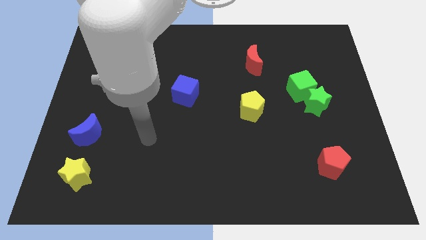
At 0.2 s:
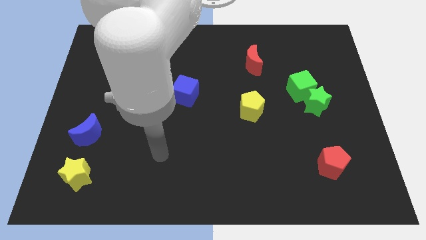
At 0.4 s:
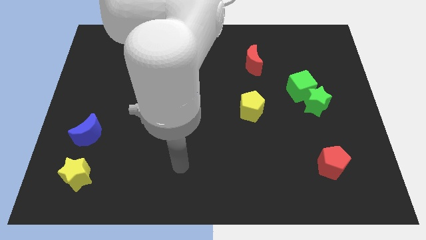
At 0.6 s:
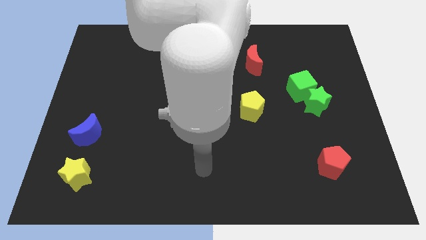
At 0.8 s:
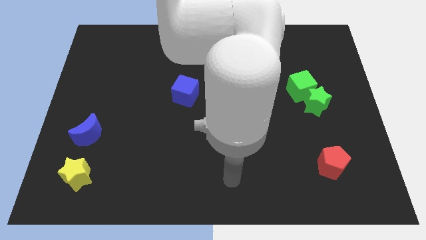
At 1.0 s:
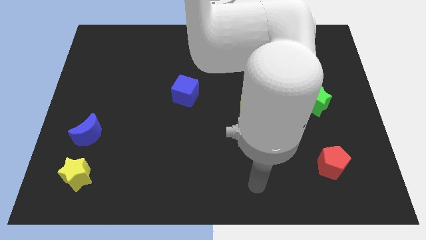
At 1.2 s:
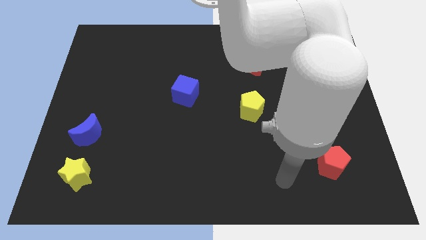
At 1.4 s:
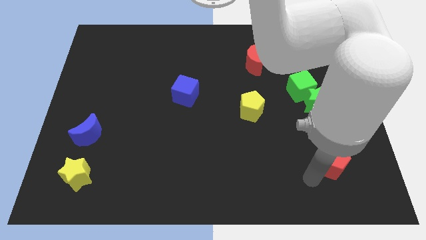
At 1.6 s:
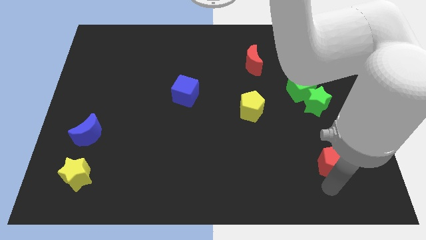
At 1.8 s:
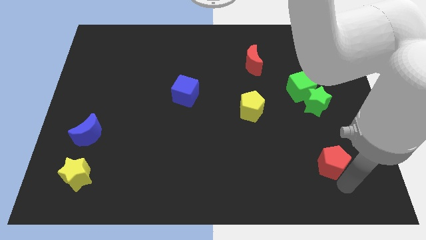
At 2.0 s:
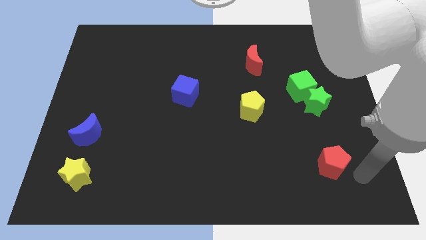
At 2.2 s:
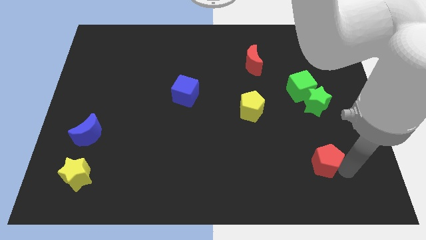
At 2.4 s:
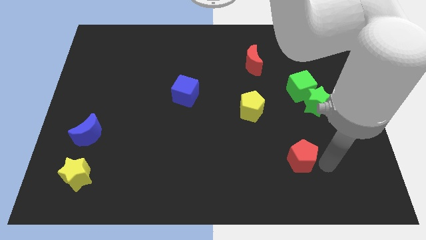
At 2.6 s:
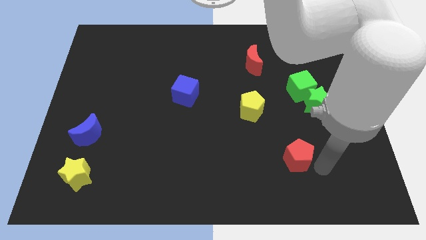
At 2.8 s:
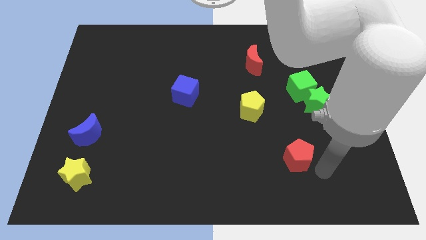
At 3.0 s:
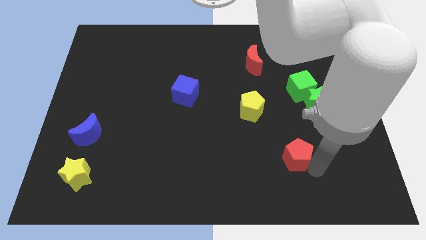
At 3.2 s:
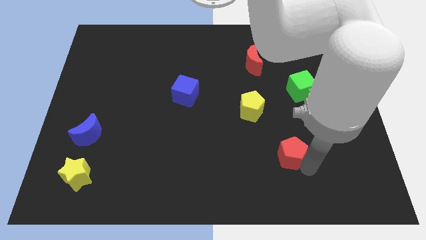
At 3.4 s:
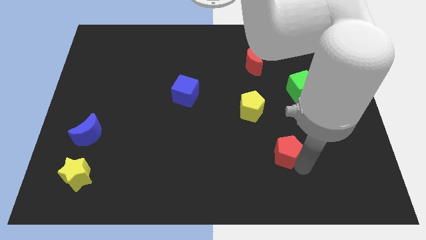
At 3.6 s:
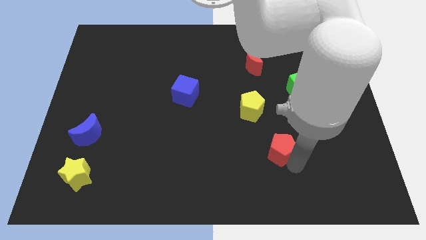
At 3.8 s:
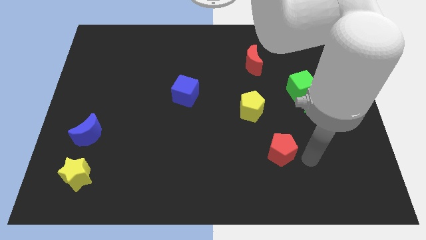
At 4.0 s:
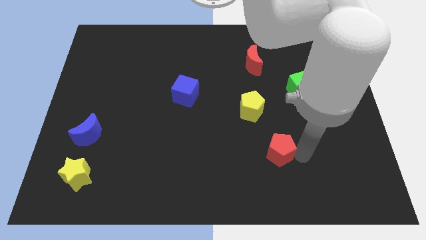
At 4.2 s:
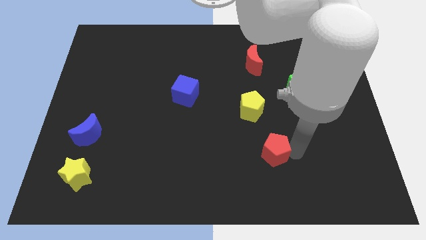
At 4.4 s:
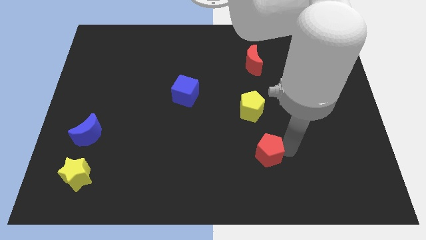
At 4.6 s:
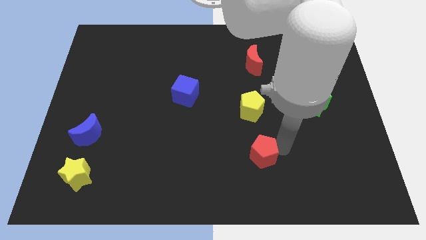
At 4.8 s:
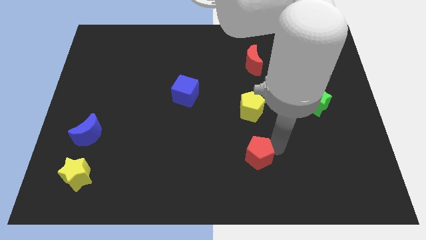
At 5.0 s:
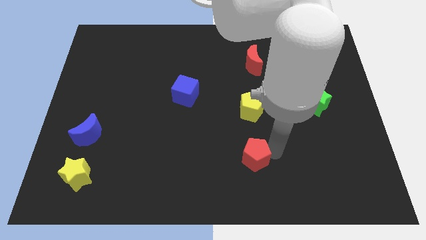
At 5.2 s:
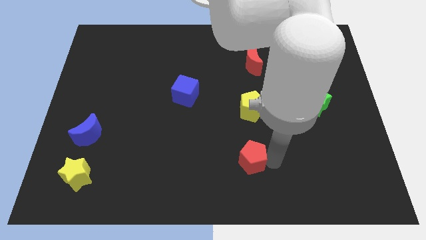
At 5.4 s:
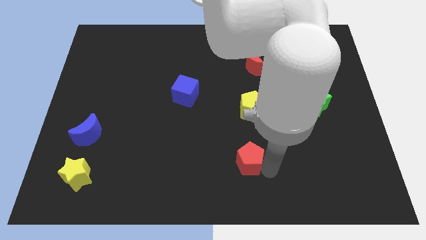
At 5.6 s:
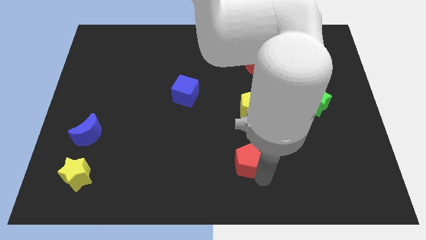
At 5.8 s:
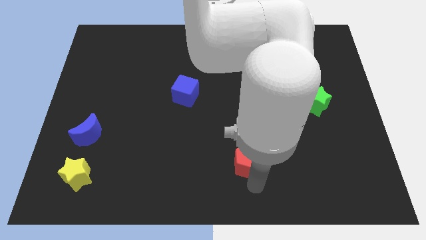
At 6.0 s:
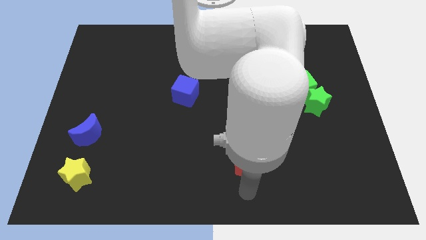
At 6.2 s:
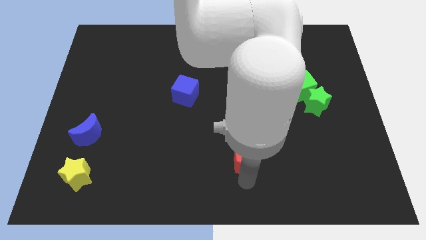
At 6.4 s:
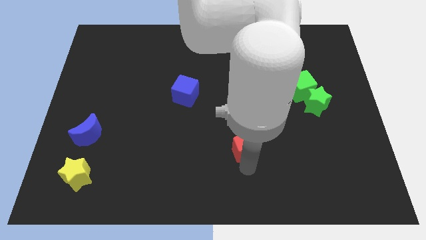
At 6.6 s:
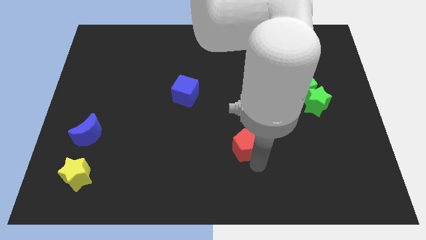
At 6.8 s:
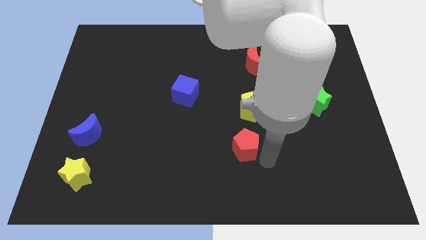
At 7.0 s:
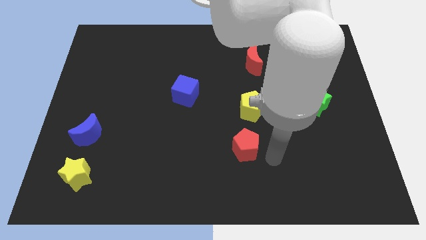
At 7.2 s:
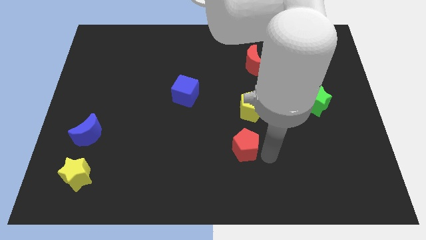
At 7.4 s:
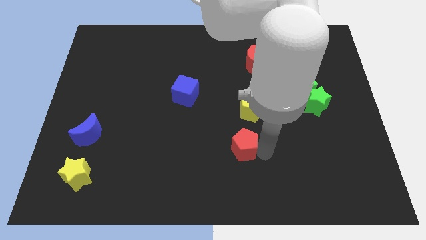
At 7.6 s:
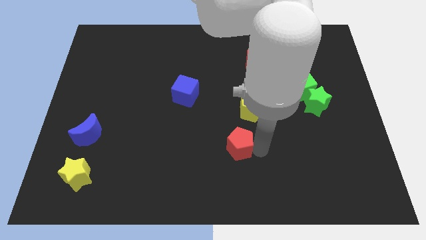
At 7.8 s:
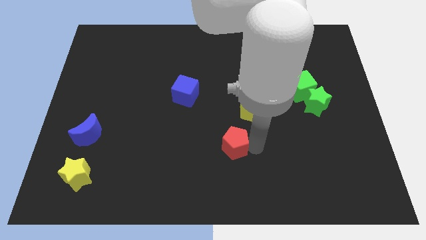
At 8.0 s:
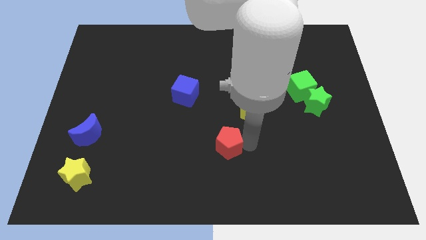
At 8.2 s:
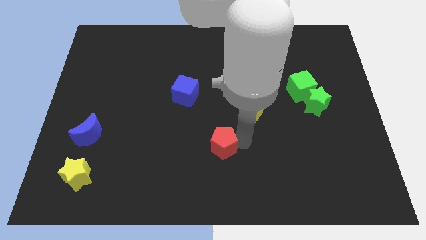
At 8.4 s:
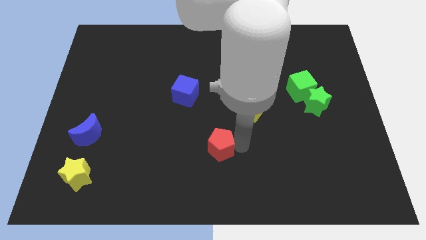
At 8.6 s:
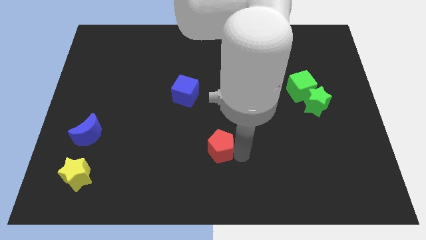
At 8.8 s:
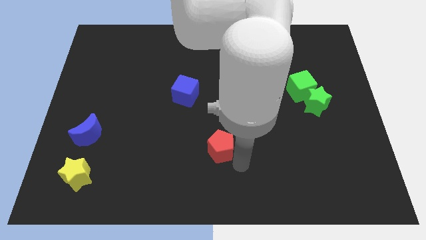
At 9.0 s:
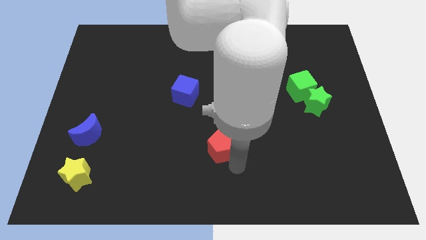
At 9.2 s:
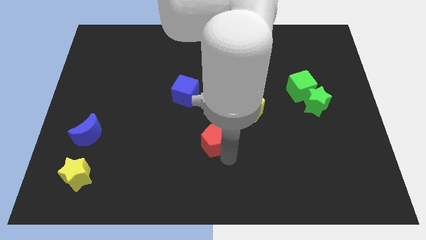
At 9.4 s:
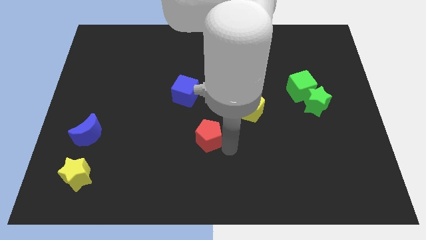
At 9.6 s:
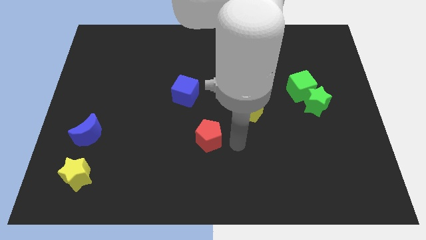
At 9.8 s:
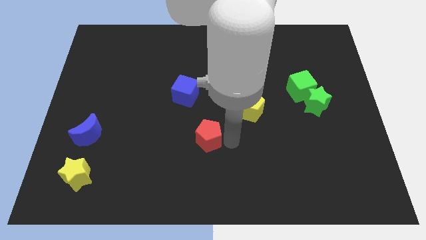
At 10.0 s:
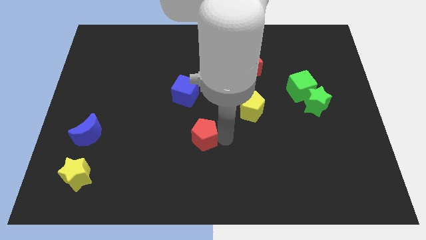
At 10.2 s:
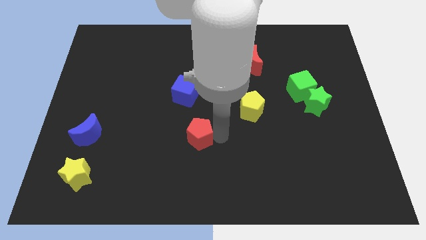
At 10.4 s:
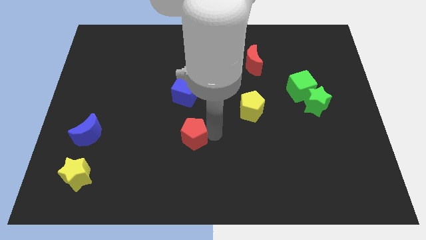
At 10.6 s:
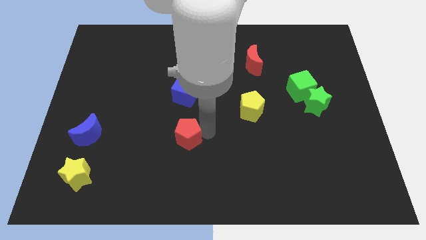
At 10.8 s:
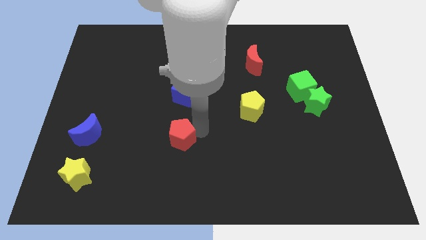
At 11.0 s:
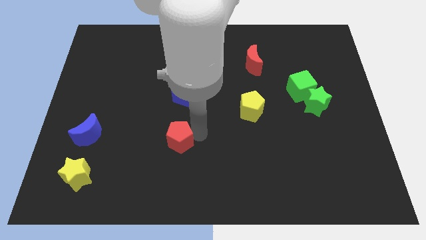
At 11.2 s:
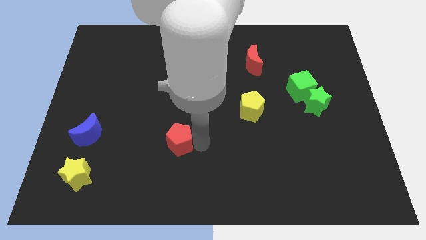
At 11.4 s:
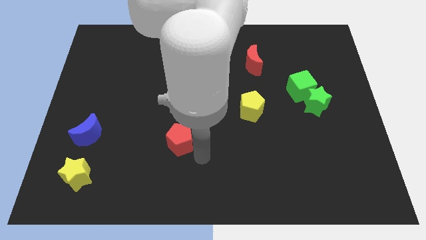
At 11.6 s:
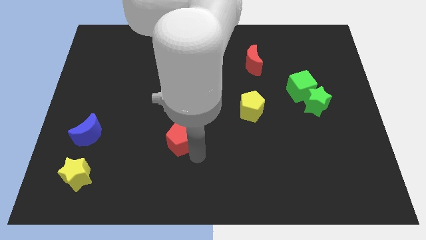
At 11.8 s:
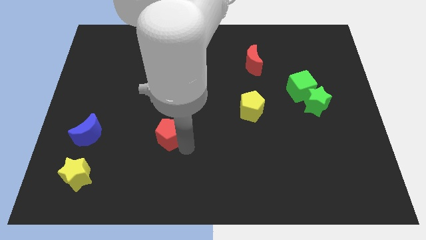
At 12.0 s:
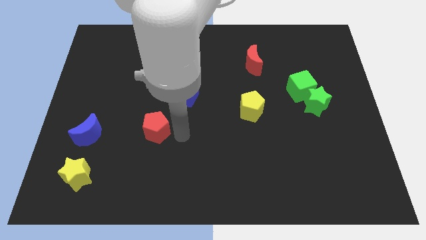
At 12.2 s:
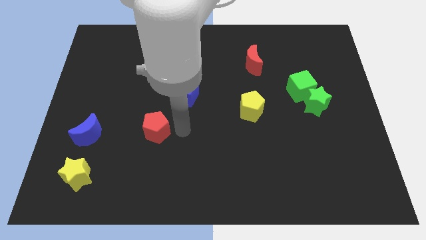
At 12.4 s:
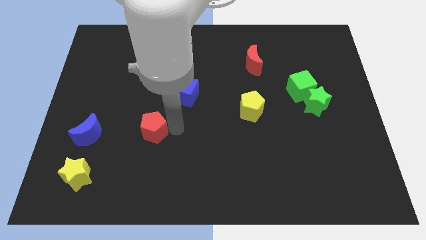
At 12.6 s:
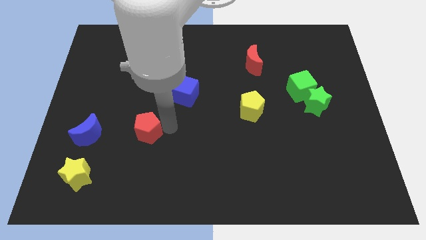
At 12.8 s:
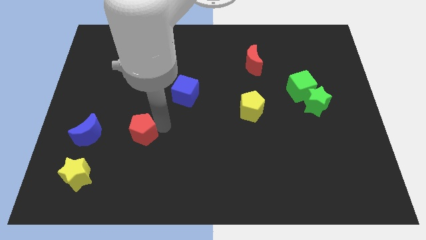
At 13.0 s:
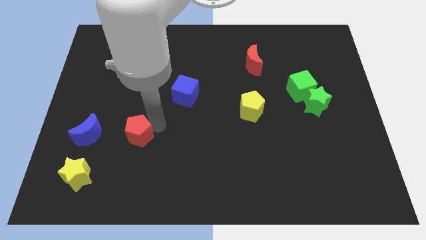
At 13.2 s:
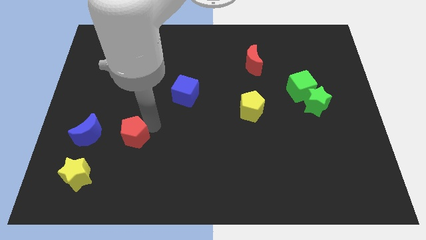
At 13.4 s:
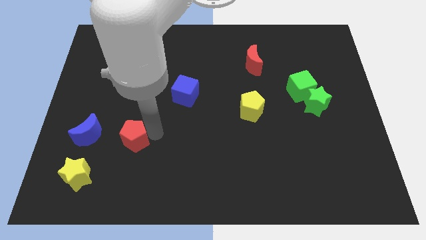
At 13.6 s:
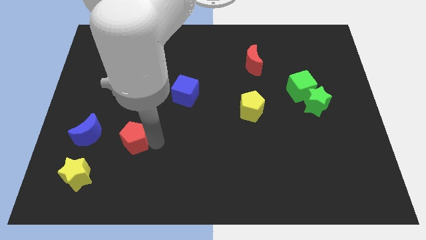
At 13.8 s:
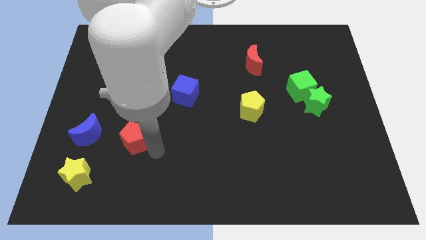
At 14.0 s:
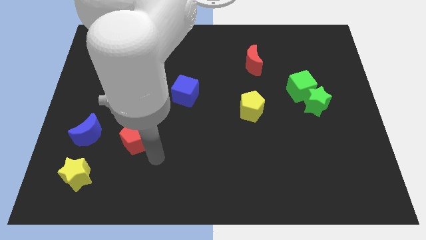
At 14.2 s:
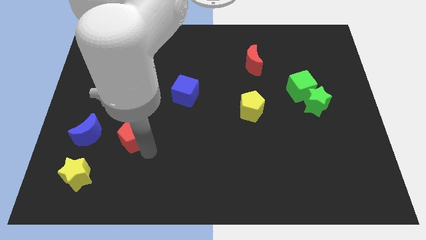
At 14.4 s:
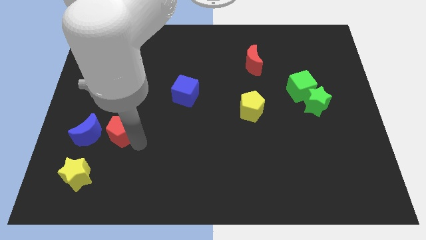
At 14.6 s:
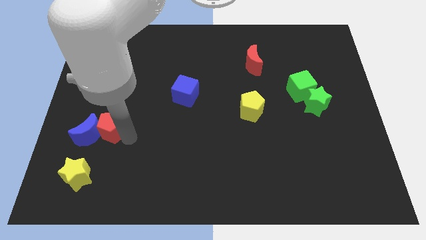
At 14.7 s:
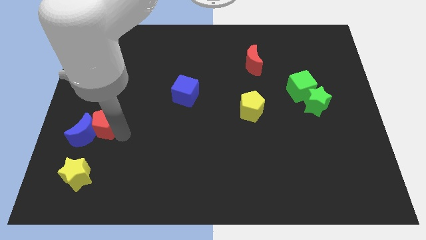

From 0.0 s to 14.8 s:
put the red pentagon to the top of the yellow star

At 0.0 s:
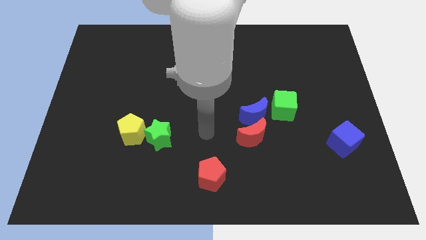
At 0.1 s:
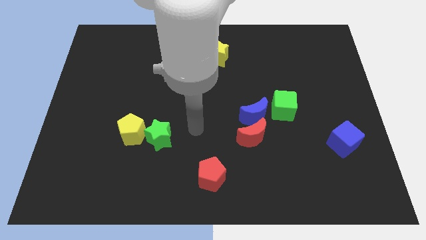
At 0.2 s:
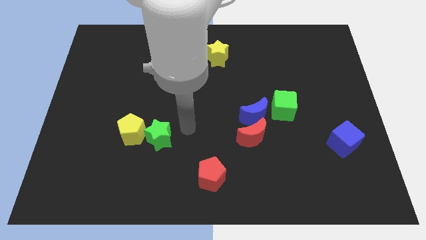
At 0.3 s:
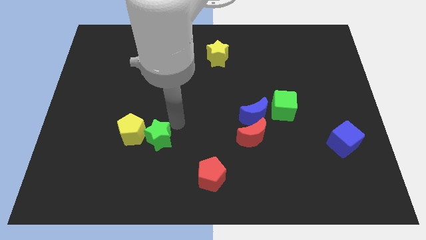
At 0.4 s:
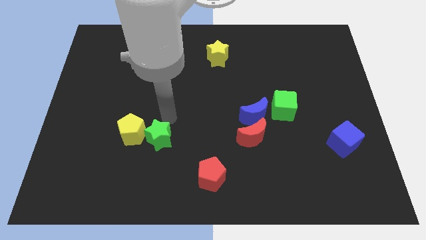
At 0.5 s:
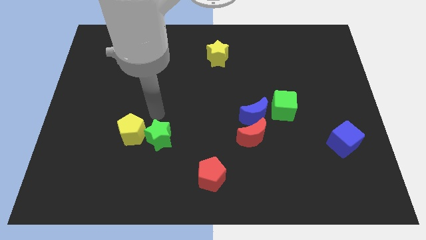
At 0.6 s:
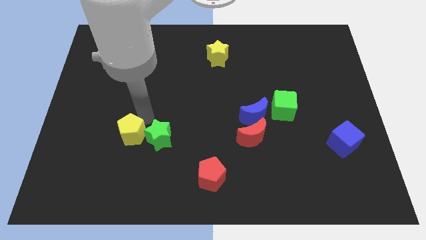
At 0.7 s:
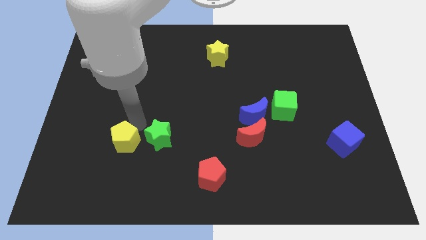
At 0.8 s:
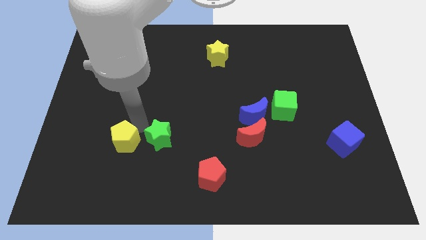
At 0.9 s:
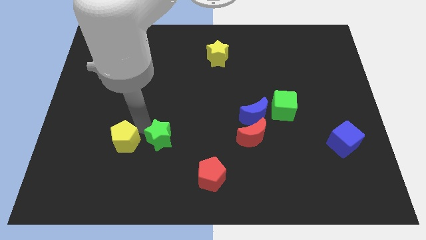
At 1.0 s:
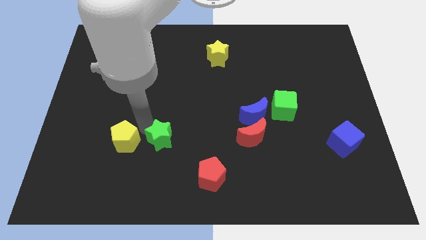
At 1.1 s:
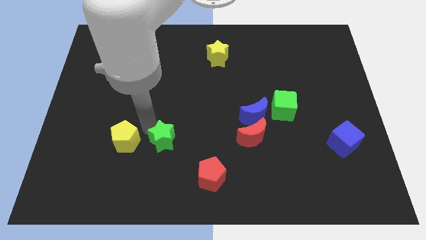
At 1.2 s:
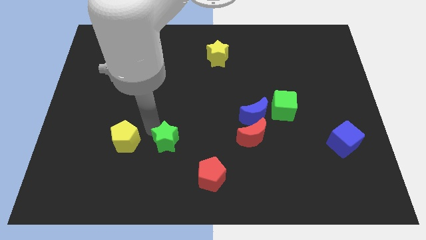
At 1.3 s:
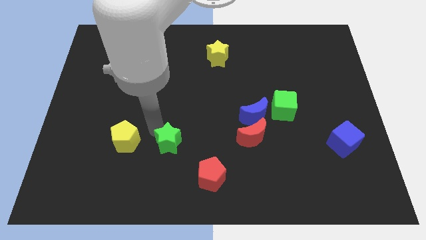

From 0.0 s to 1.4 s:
push the green star to the top left of the red pentagon
